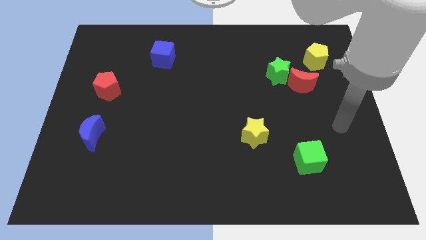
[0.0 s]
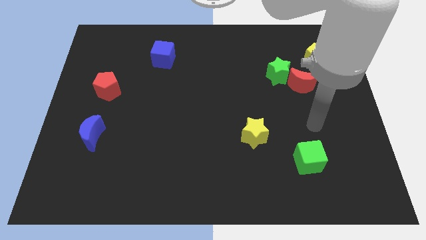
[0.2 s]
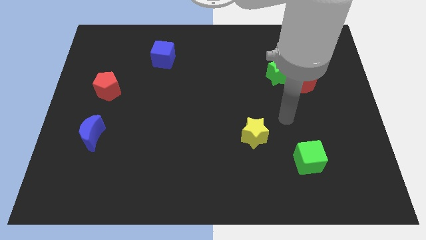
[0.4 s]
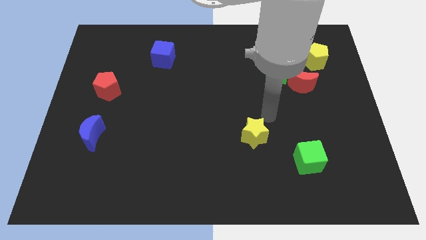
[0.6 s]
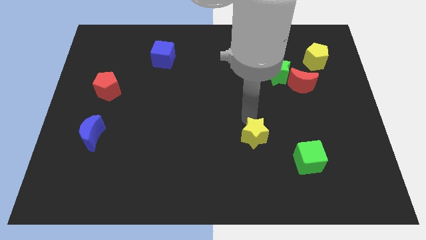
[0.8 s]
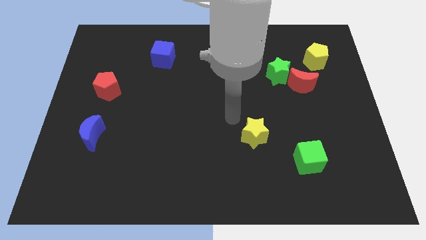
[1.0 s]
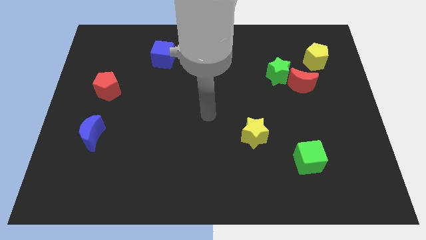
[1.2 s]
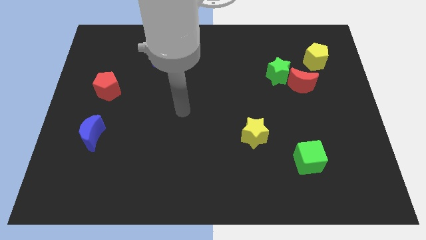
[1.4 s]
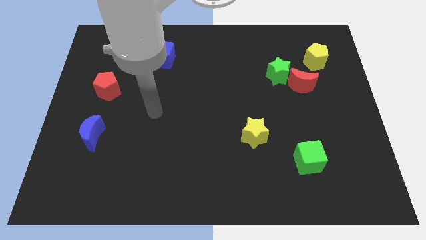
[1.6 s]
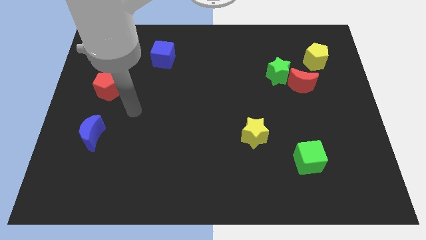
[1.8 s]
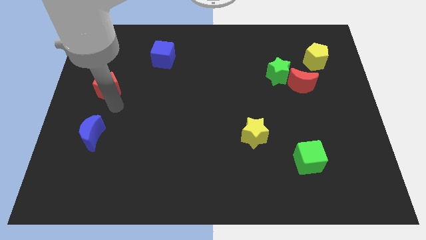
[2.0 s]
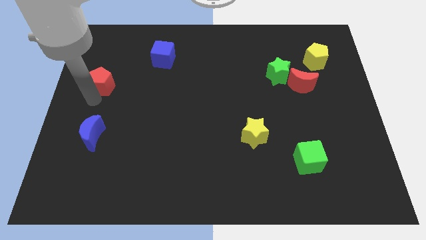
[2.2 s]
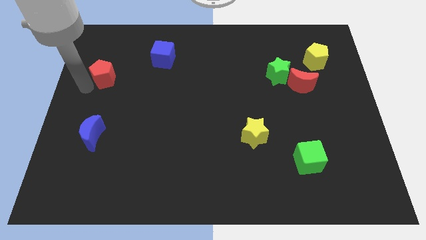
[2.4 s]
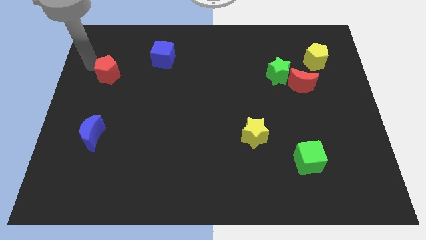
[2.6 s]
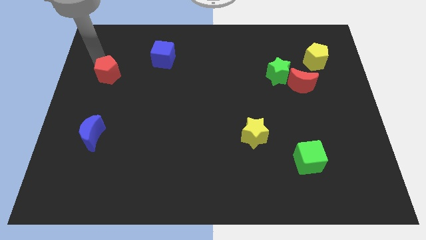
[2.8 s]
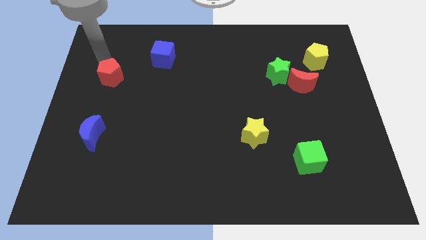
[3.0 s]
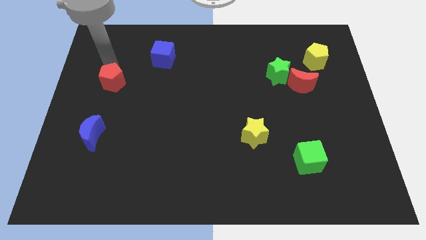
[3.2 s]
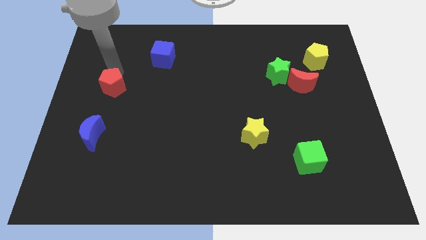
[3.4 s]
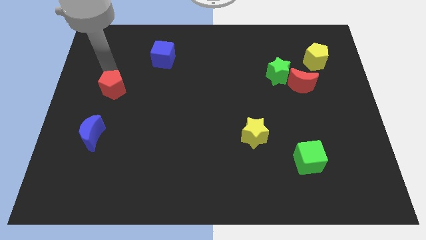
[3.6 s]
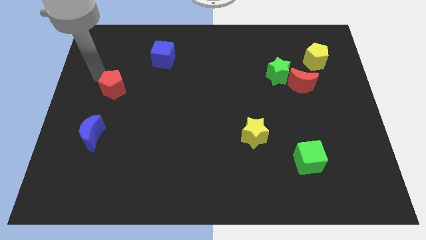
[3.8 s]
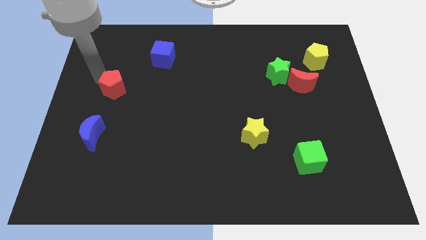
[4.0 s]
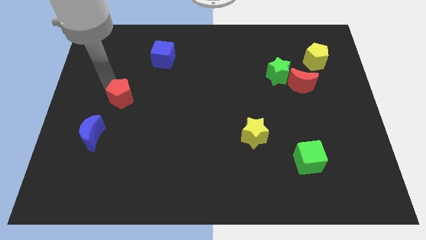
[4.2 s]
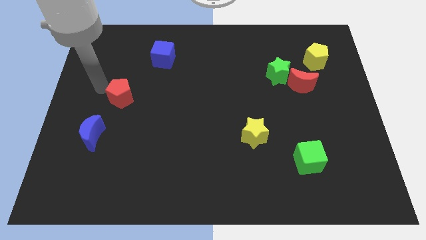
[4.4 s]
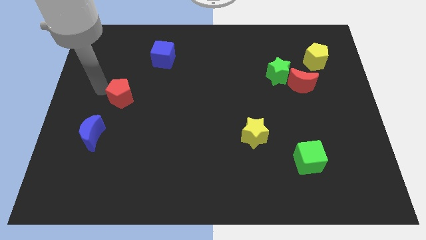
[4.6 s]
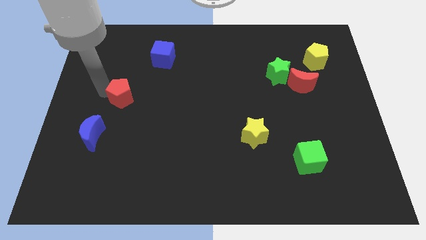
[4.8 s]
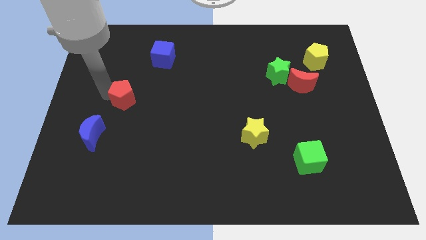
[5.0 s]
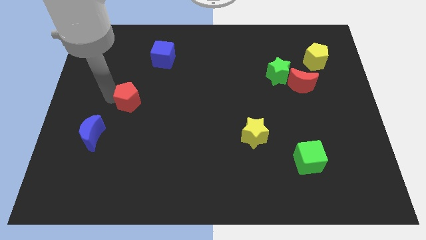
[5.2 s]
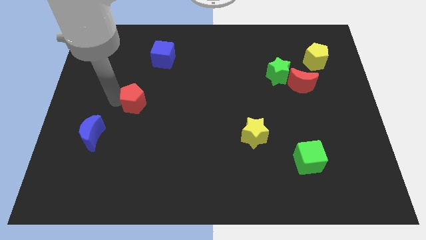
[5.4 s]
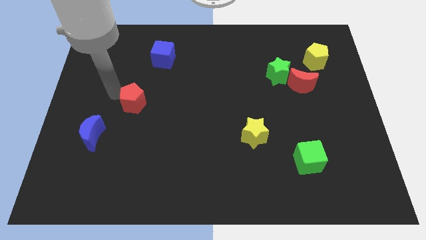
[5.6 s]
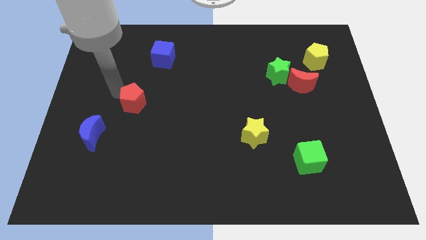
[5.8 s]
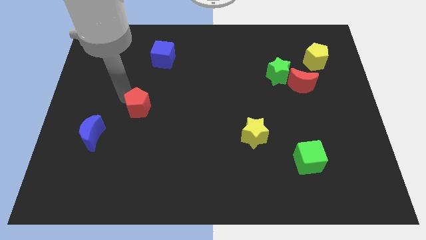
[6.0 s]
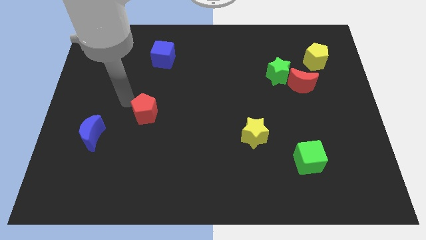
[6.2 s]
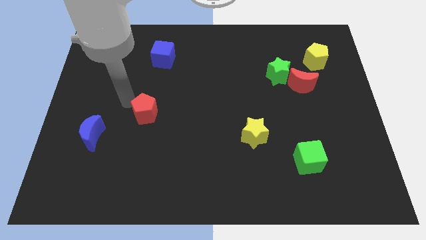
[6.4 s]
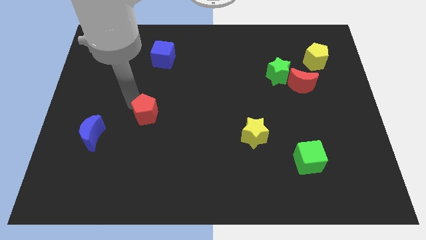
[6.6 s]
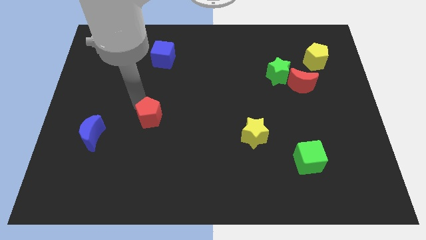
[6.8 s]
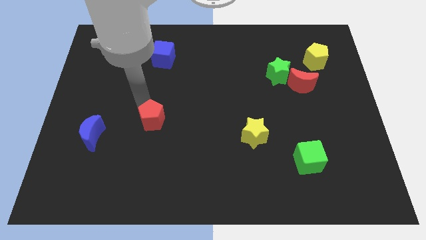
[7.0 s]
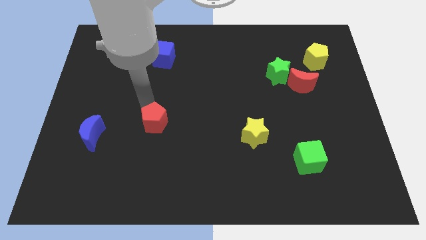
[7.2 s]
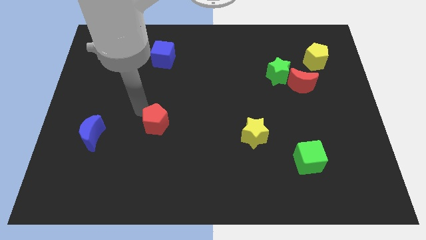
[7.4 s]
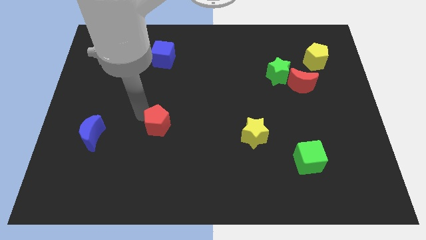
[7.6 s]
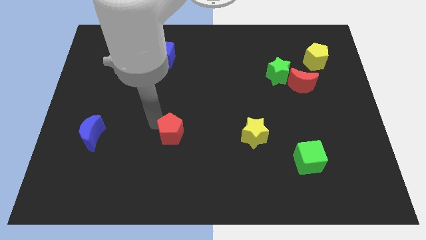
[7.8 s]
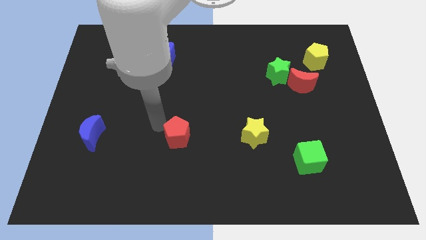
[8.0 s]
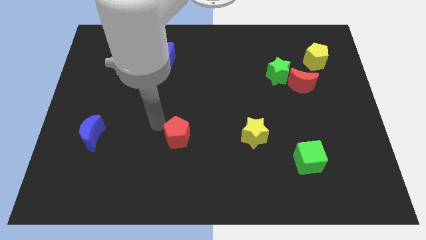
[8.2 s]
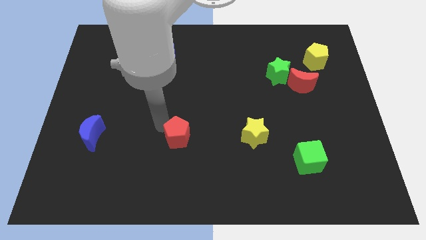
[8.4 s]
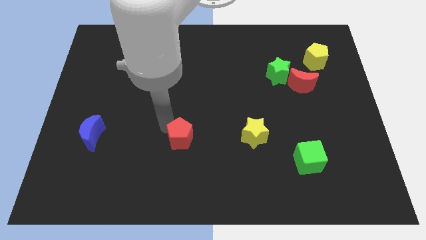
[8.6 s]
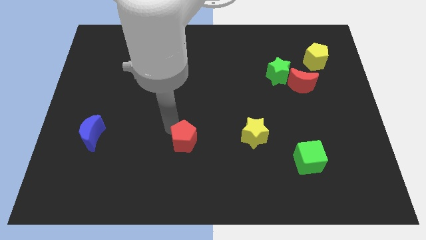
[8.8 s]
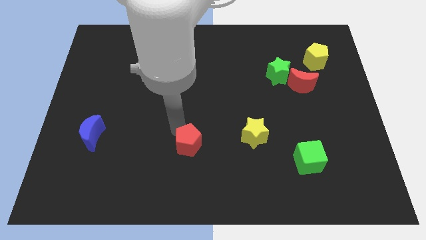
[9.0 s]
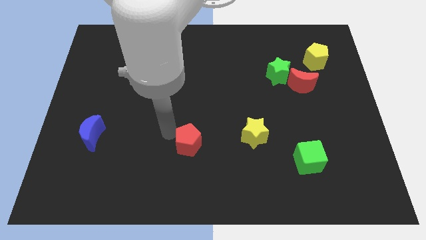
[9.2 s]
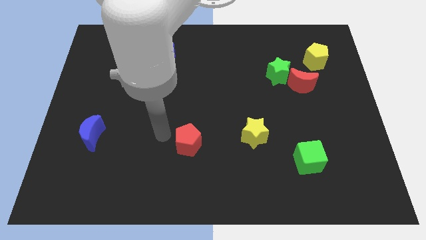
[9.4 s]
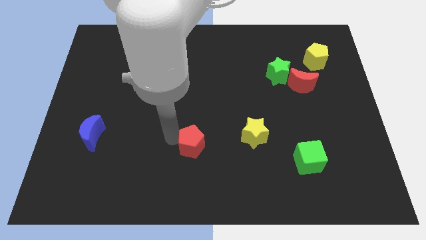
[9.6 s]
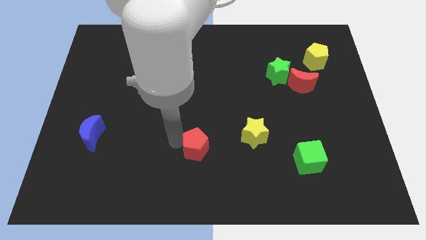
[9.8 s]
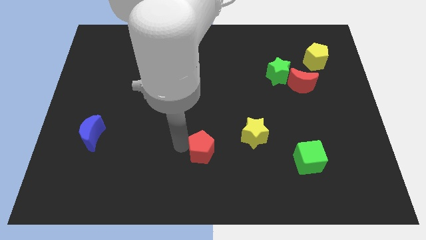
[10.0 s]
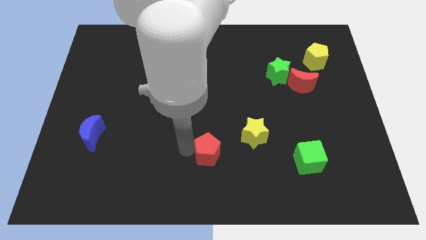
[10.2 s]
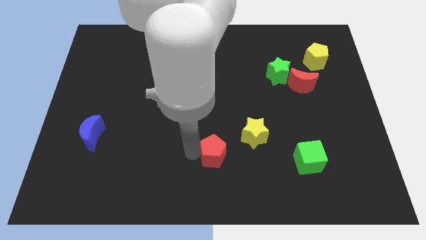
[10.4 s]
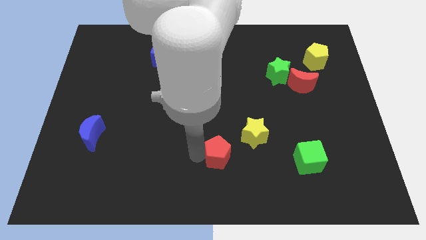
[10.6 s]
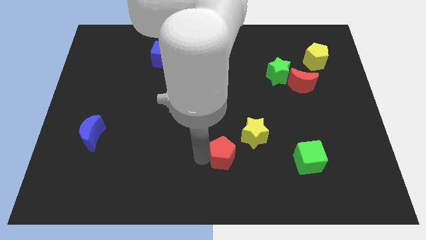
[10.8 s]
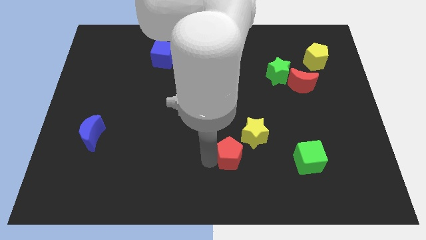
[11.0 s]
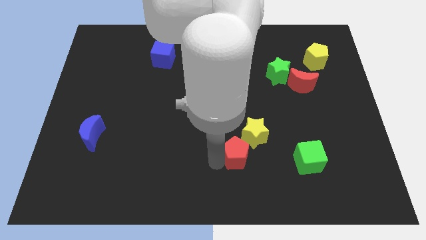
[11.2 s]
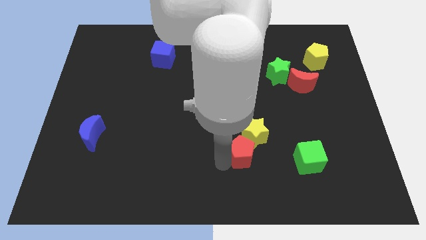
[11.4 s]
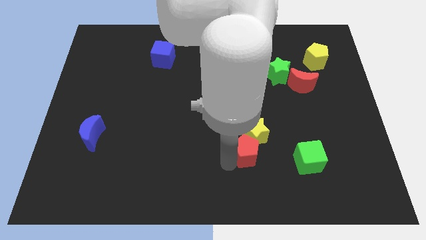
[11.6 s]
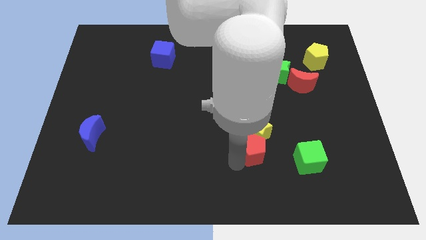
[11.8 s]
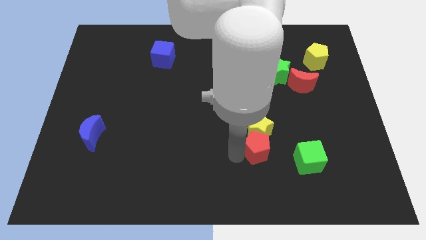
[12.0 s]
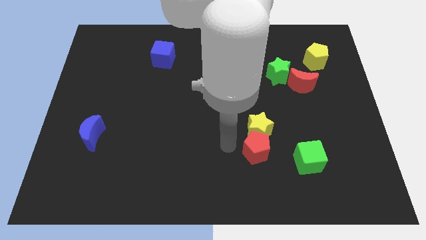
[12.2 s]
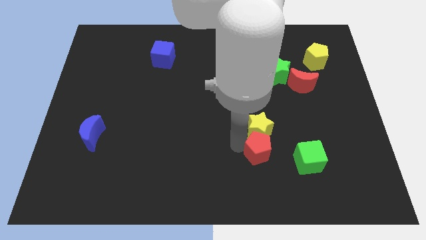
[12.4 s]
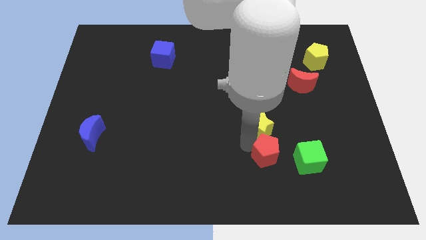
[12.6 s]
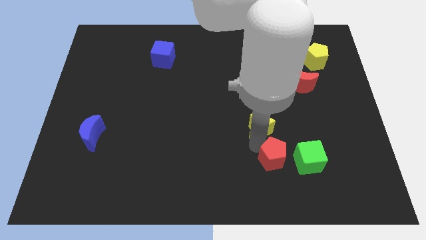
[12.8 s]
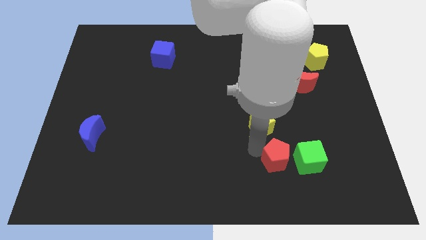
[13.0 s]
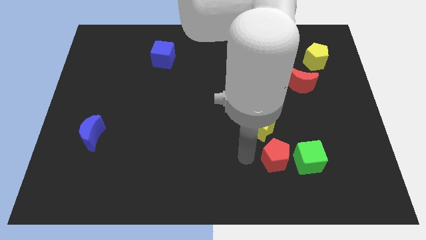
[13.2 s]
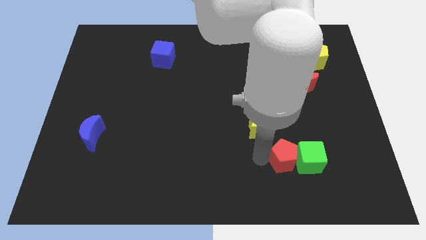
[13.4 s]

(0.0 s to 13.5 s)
slide the red pentagon close to the green cube

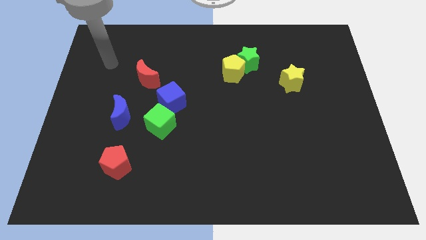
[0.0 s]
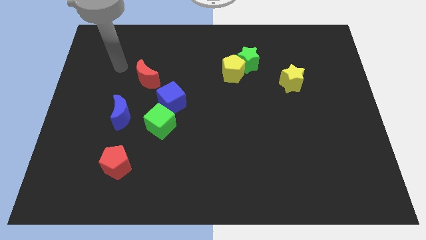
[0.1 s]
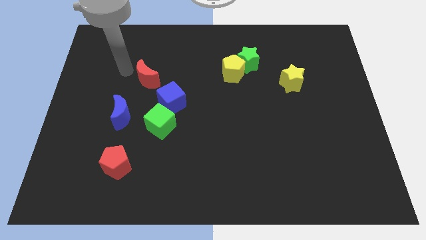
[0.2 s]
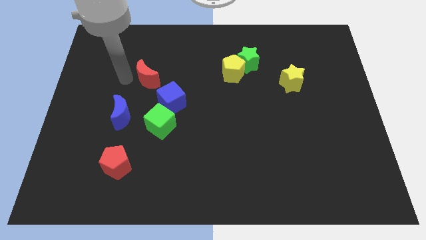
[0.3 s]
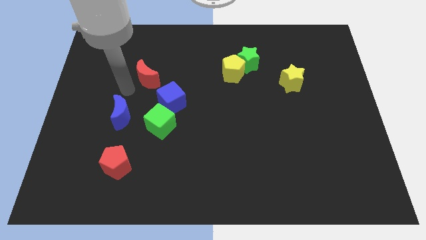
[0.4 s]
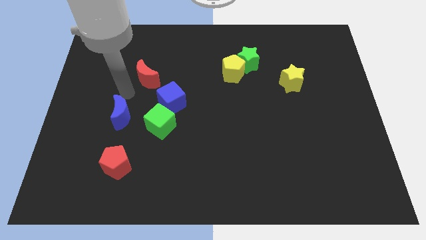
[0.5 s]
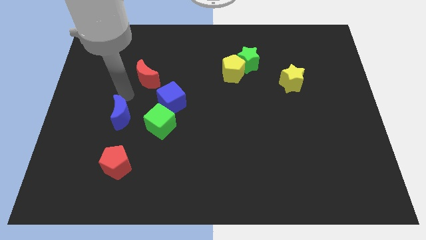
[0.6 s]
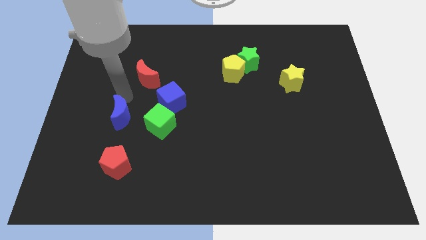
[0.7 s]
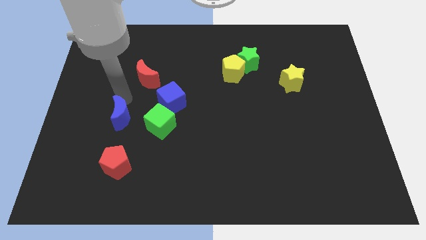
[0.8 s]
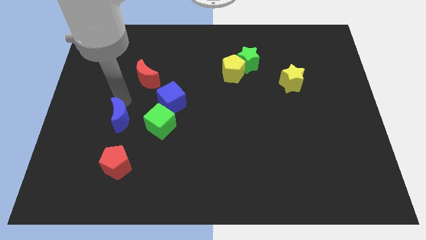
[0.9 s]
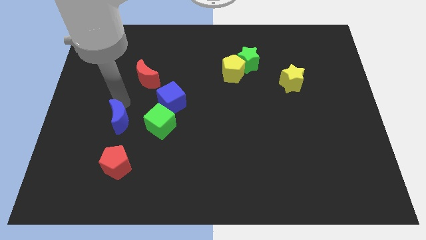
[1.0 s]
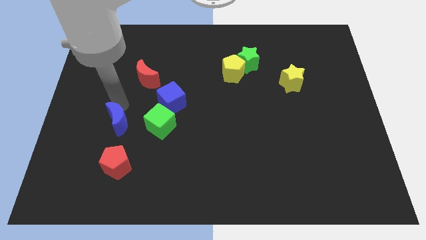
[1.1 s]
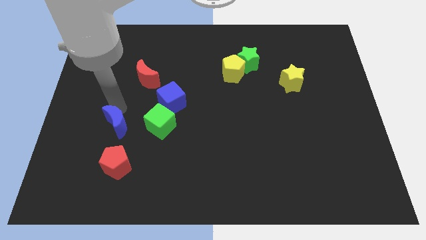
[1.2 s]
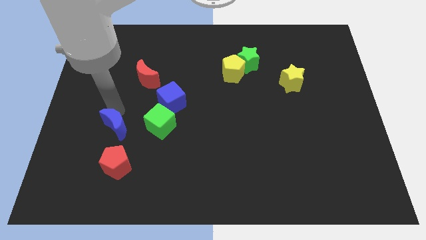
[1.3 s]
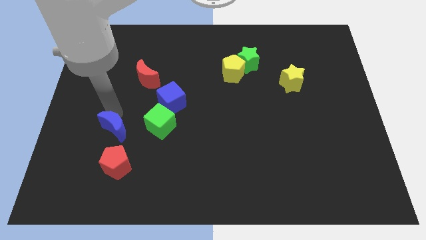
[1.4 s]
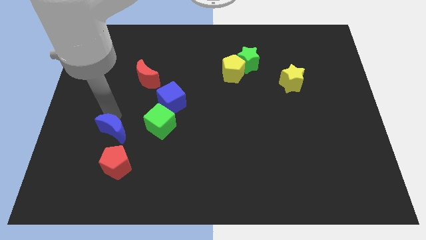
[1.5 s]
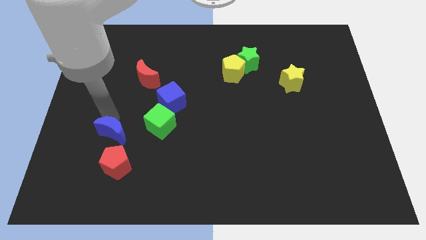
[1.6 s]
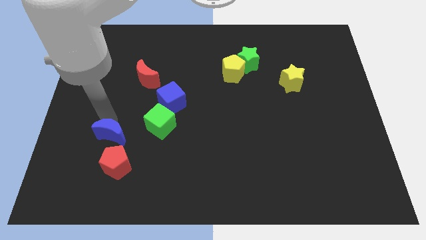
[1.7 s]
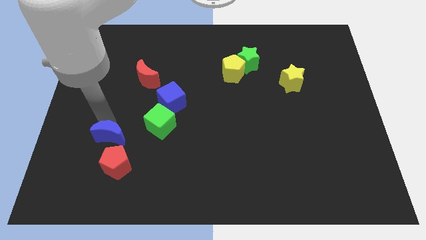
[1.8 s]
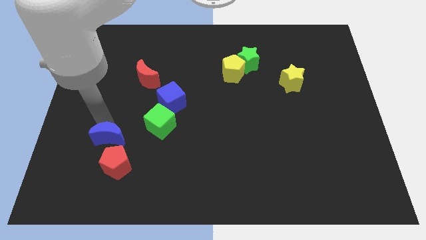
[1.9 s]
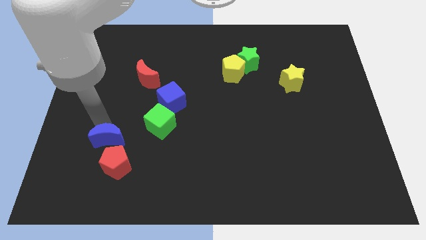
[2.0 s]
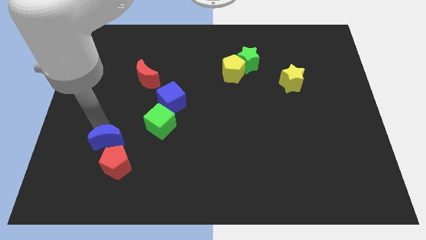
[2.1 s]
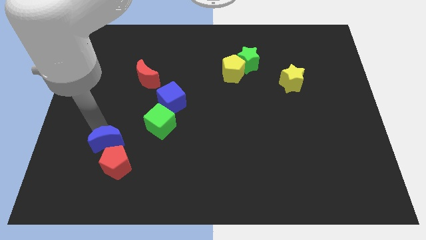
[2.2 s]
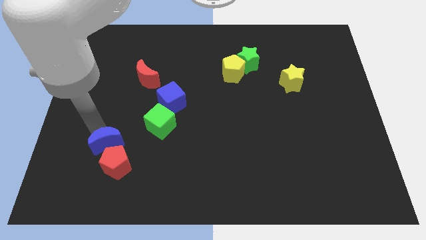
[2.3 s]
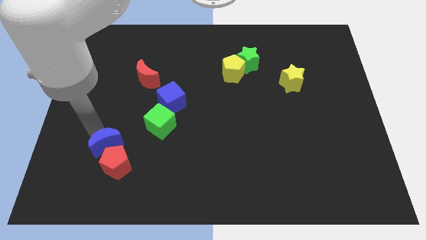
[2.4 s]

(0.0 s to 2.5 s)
put the blue moon close to the red pentagon
